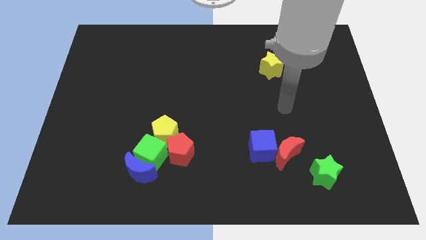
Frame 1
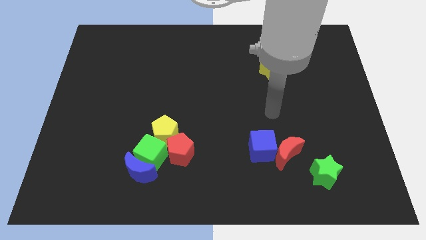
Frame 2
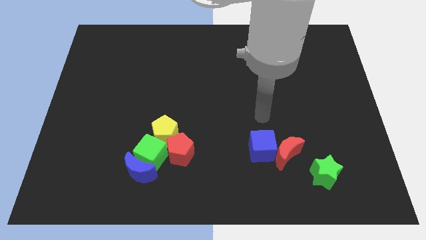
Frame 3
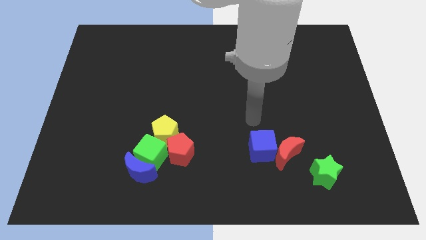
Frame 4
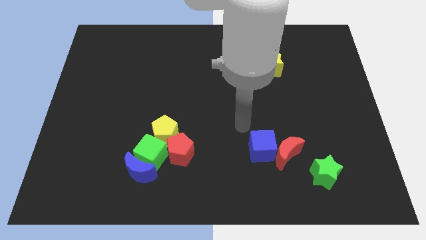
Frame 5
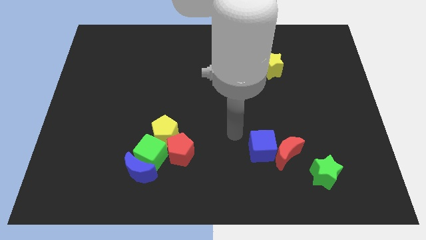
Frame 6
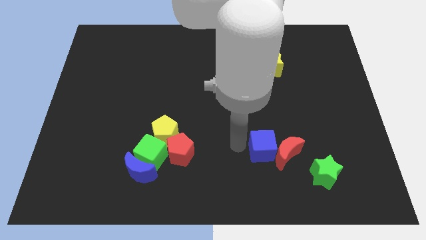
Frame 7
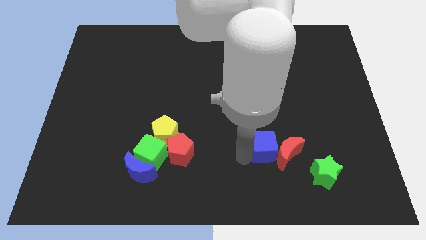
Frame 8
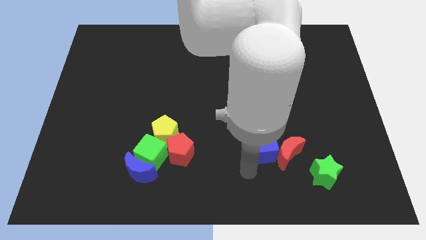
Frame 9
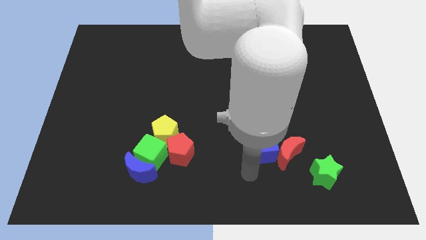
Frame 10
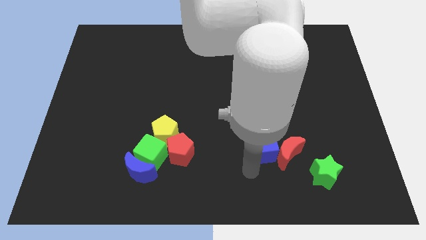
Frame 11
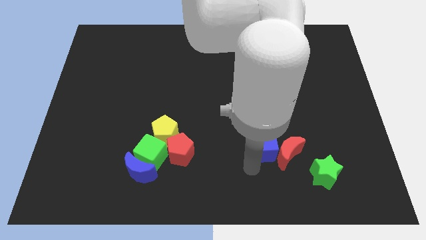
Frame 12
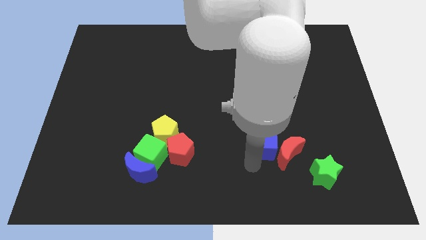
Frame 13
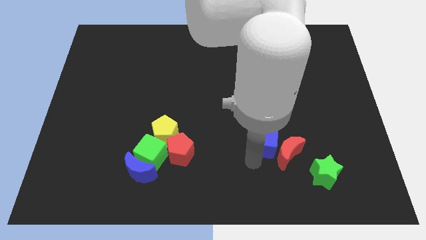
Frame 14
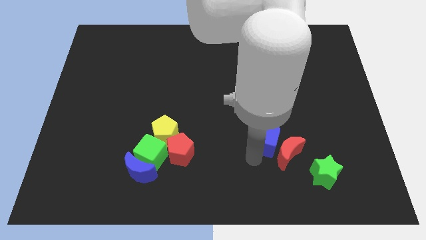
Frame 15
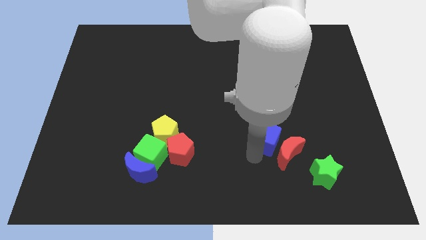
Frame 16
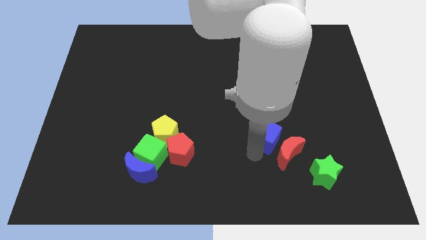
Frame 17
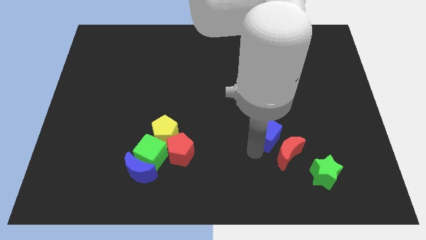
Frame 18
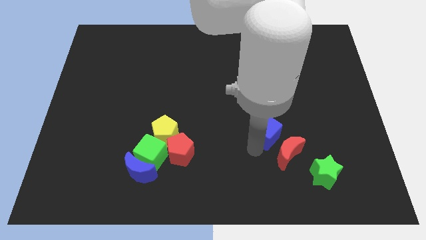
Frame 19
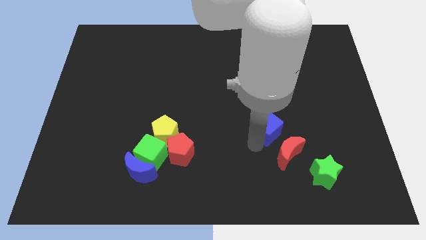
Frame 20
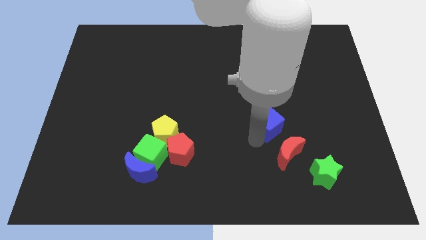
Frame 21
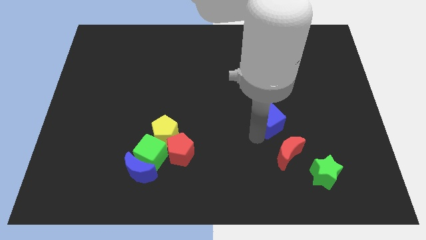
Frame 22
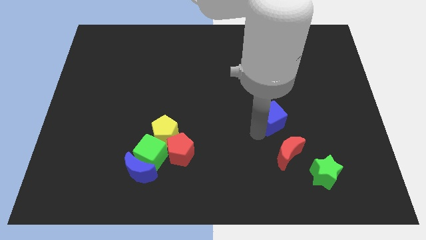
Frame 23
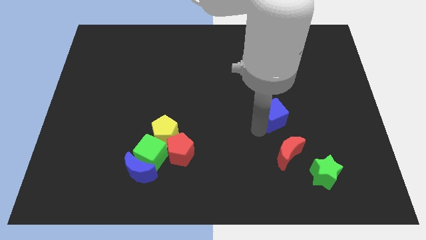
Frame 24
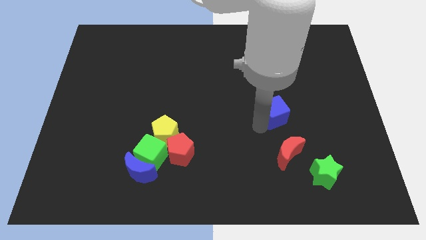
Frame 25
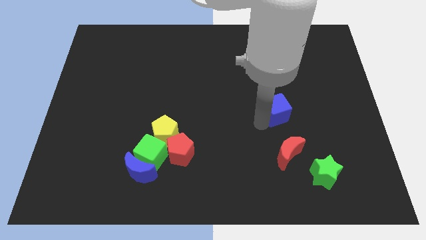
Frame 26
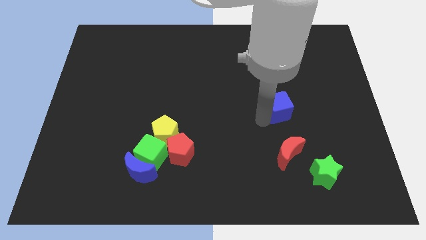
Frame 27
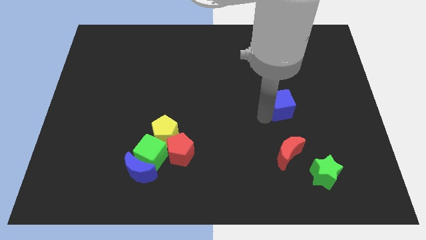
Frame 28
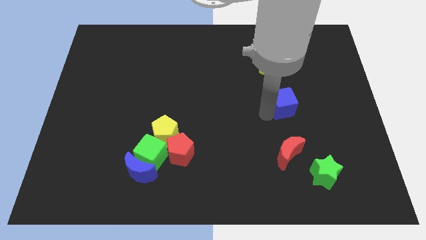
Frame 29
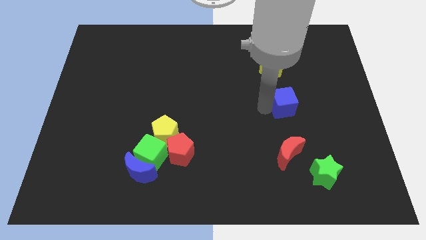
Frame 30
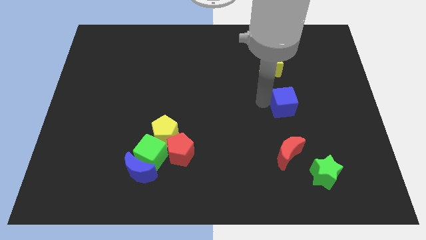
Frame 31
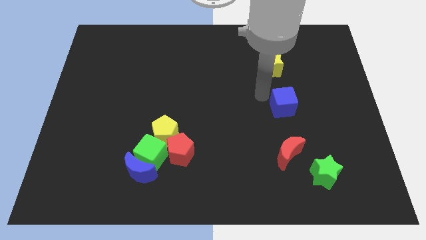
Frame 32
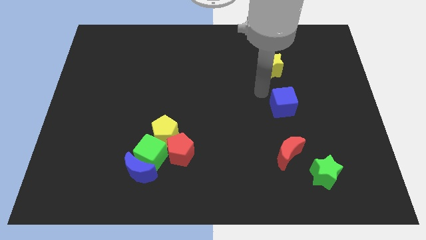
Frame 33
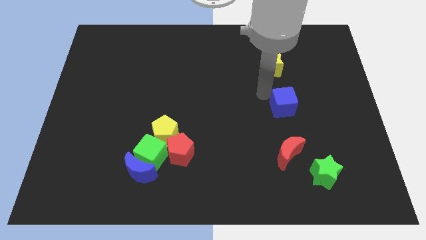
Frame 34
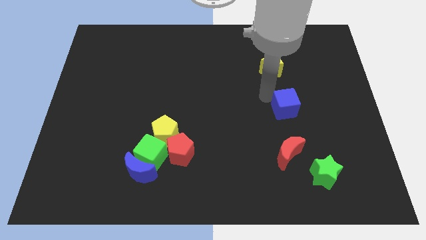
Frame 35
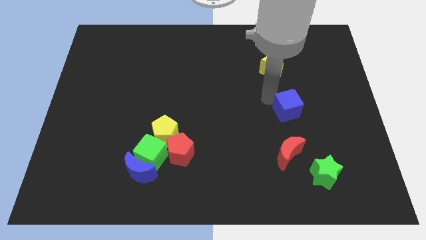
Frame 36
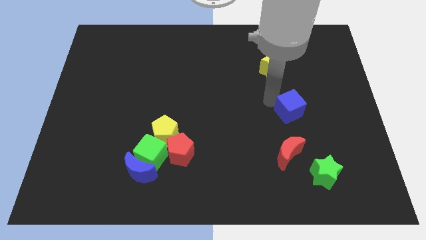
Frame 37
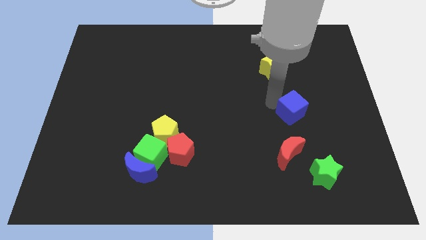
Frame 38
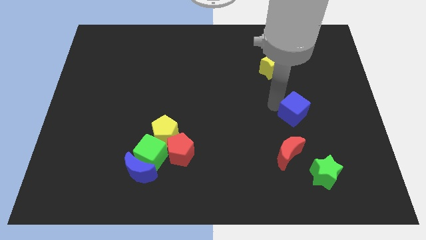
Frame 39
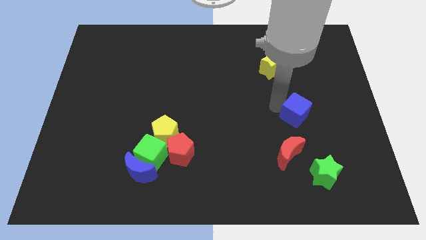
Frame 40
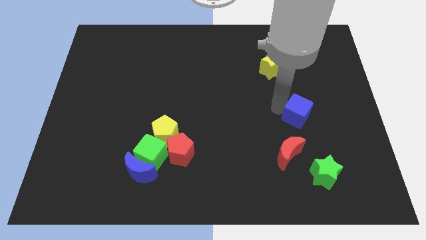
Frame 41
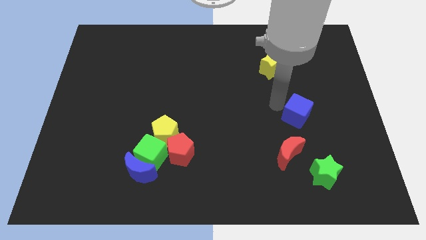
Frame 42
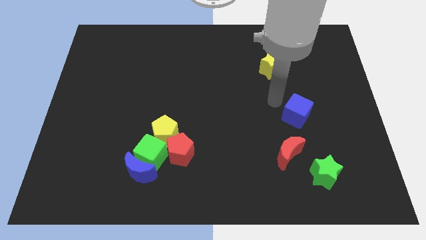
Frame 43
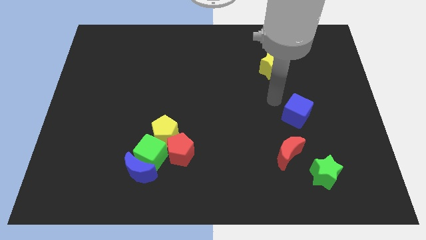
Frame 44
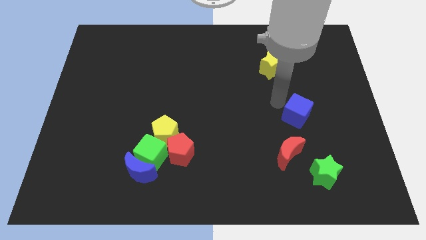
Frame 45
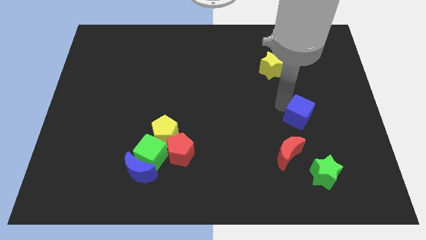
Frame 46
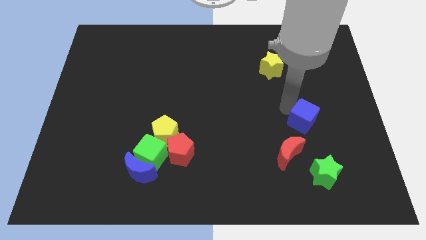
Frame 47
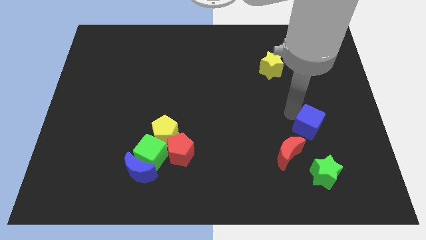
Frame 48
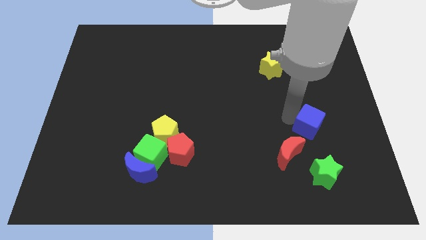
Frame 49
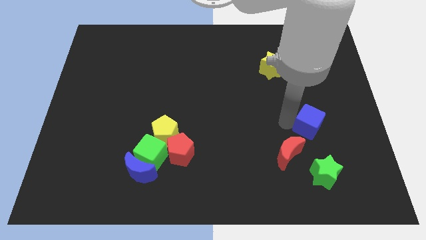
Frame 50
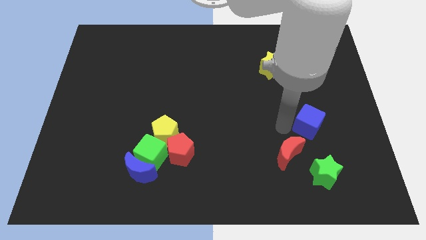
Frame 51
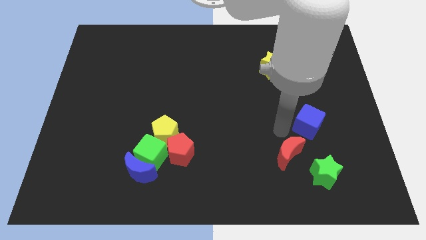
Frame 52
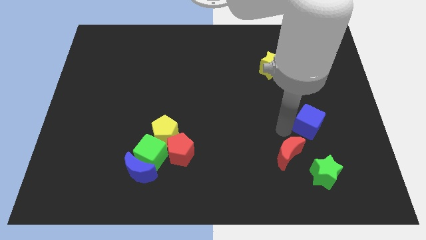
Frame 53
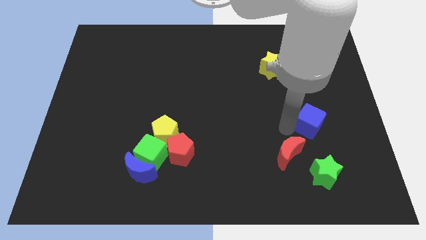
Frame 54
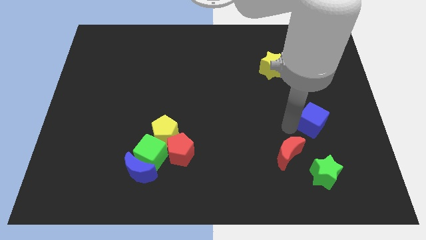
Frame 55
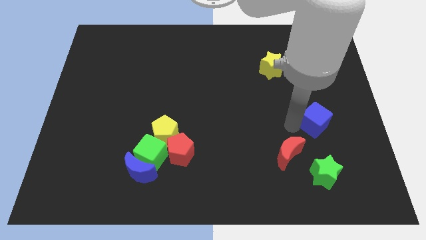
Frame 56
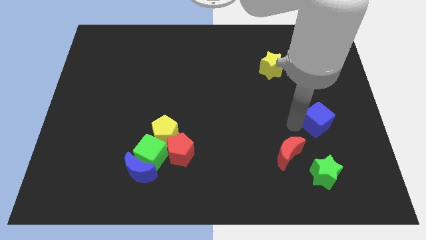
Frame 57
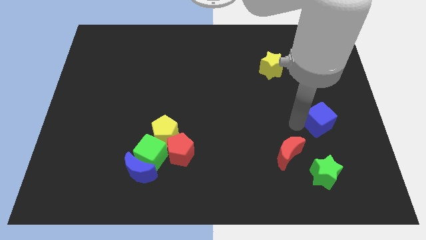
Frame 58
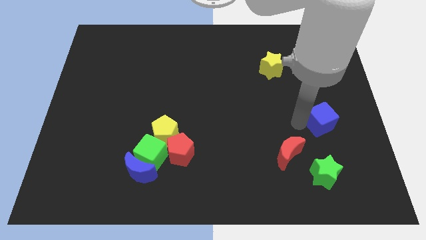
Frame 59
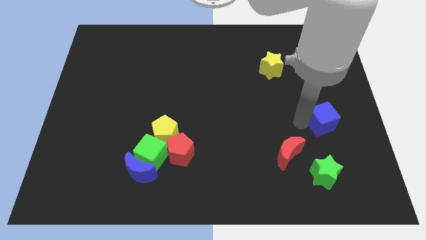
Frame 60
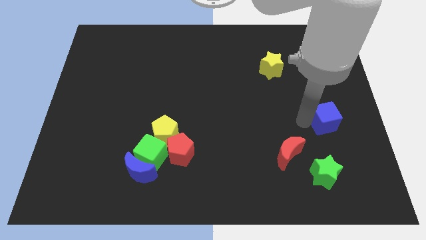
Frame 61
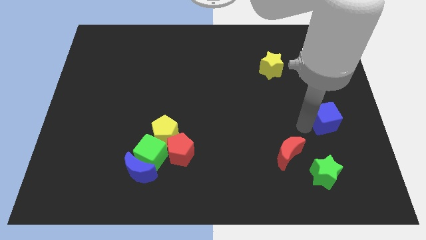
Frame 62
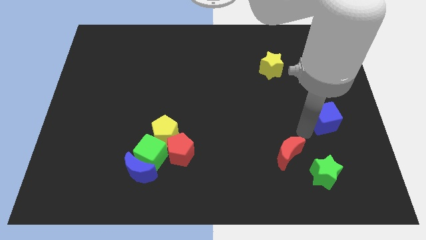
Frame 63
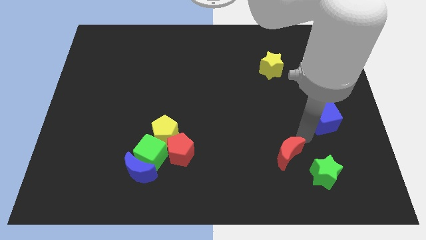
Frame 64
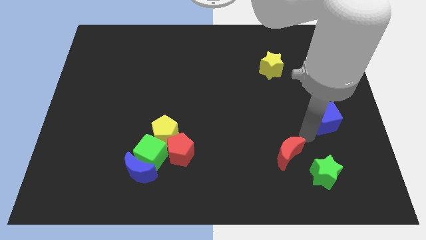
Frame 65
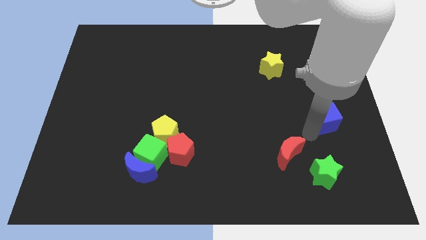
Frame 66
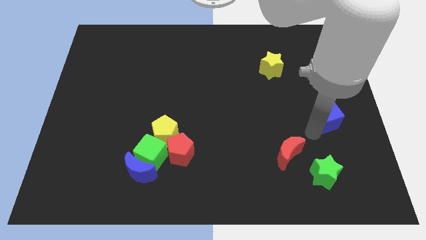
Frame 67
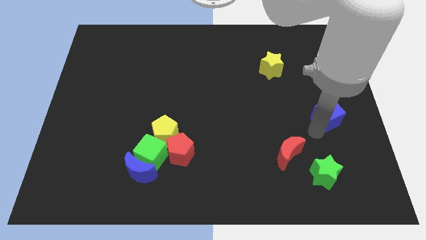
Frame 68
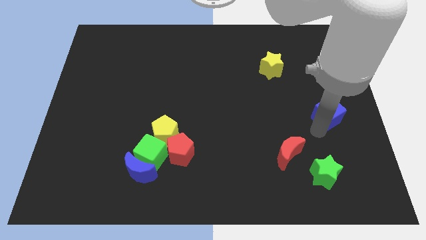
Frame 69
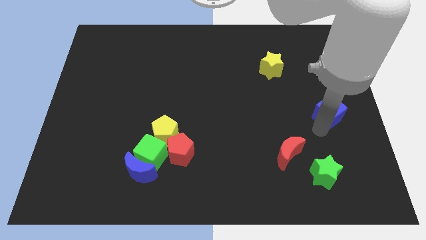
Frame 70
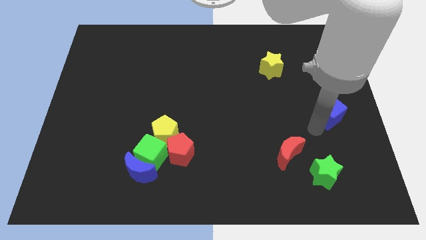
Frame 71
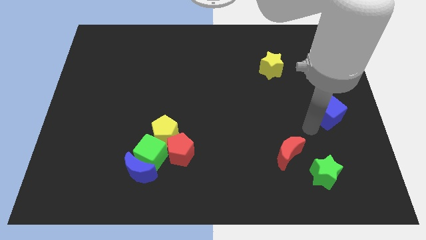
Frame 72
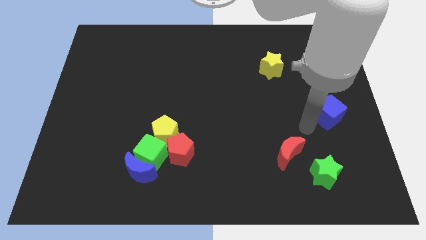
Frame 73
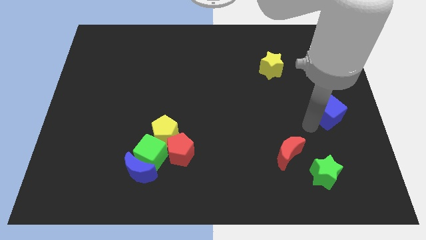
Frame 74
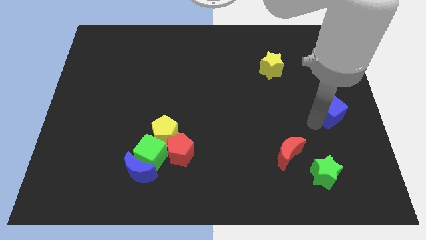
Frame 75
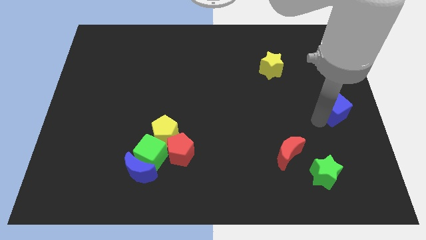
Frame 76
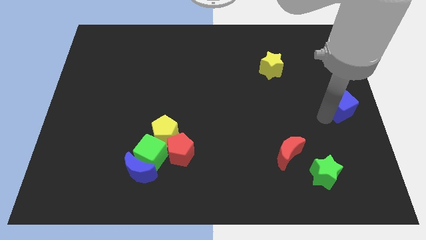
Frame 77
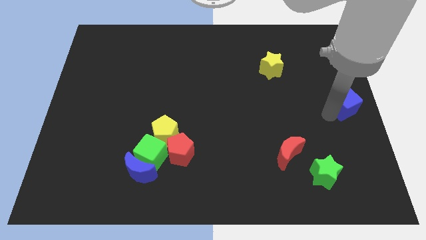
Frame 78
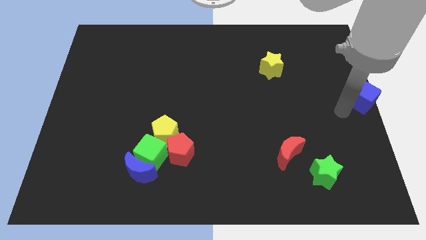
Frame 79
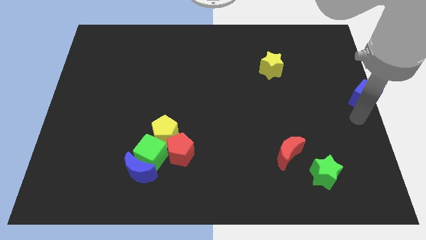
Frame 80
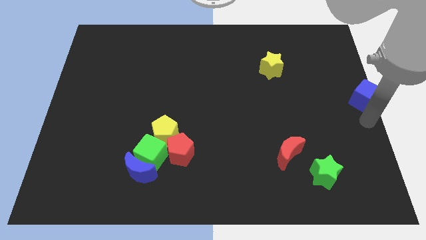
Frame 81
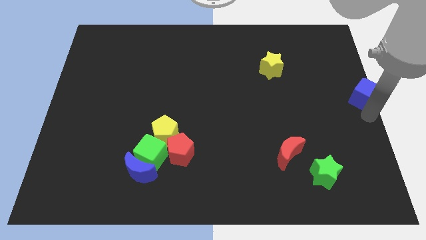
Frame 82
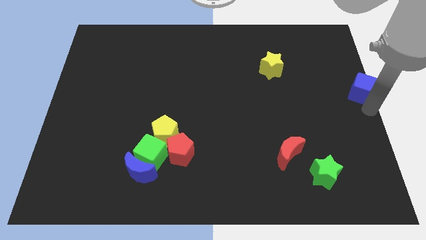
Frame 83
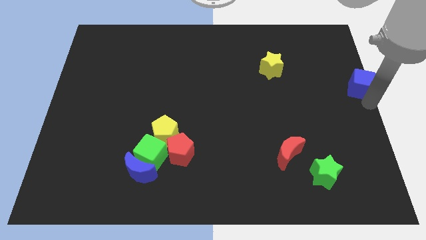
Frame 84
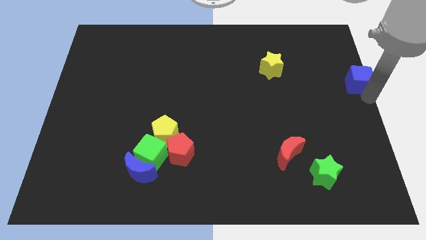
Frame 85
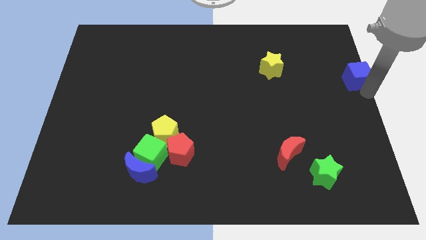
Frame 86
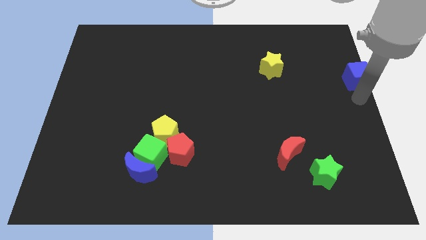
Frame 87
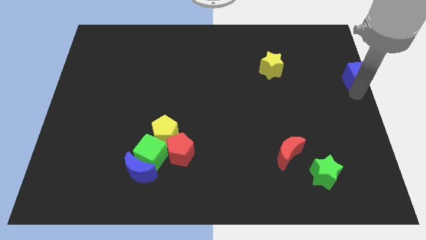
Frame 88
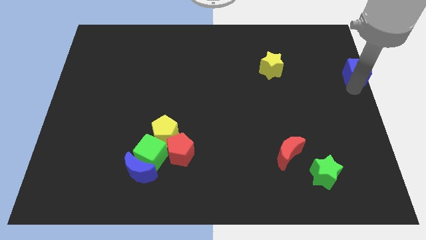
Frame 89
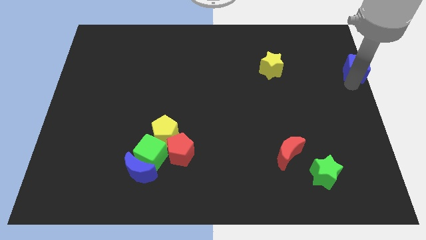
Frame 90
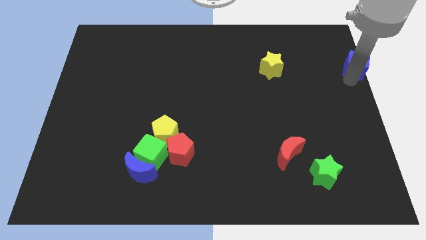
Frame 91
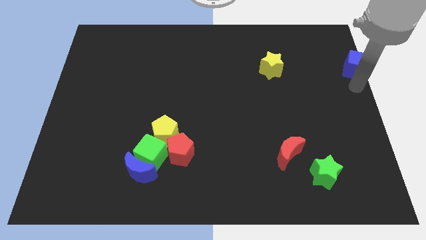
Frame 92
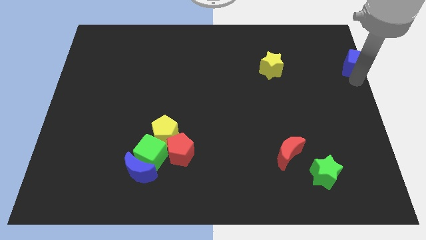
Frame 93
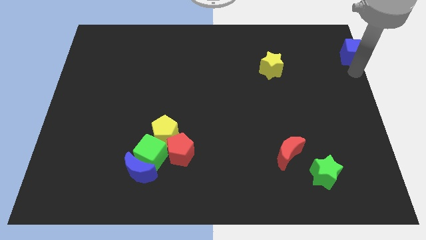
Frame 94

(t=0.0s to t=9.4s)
push the blue cube to the upper right corner
